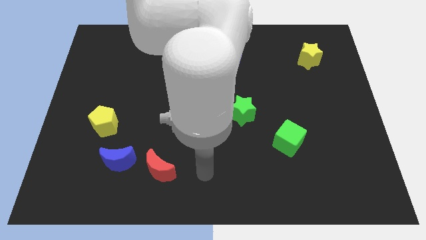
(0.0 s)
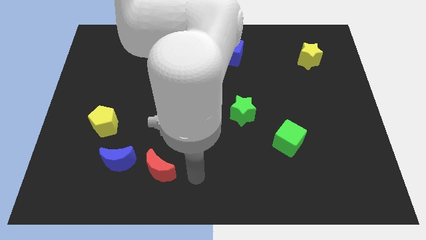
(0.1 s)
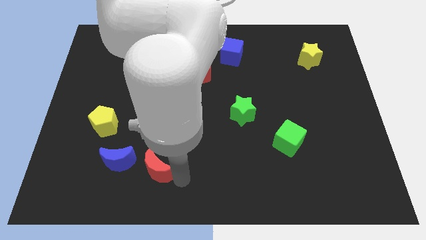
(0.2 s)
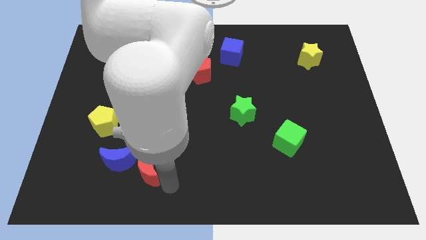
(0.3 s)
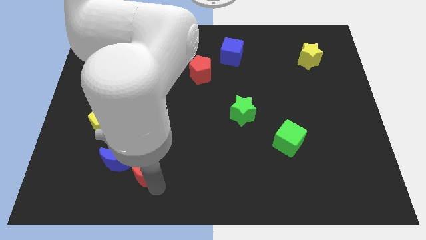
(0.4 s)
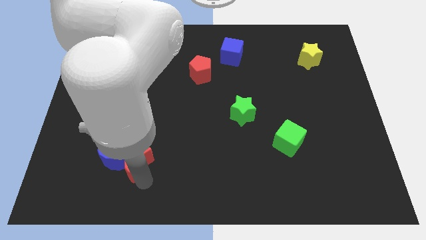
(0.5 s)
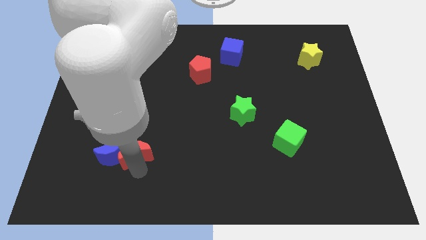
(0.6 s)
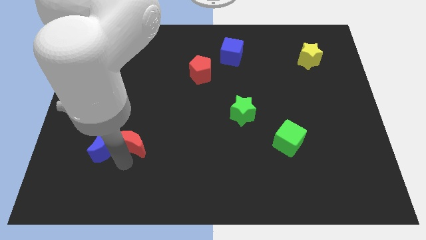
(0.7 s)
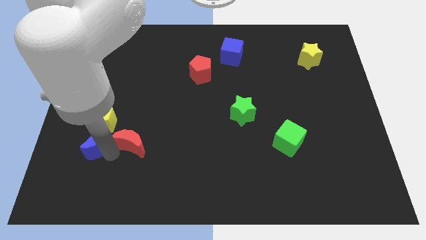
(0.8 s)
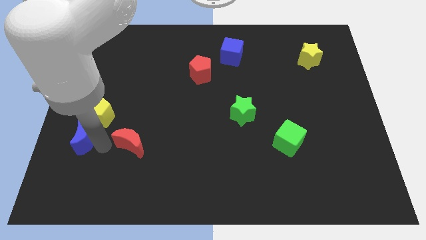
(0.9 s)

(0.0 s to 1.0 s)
separate the red moon from the blue moon

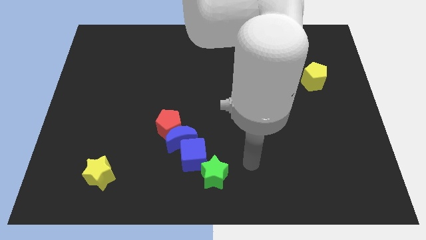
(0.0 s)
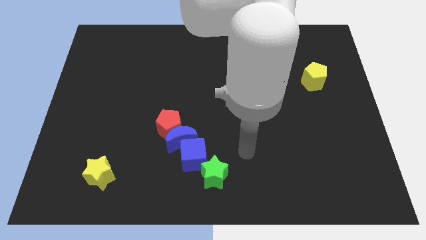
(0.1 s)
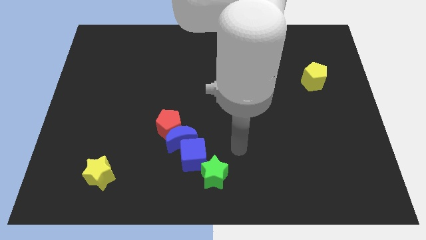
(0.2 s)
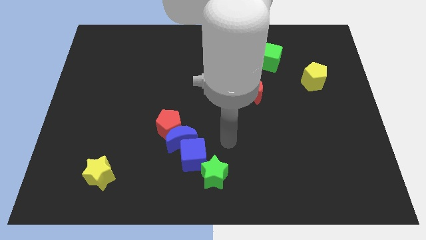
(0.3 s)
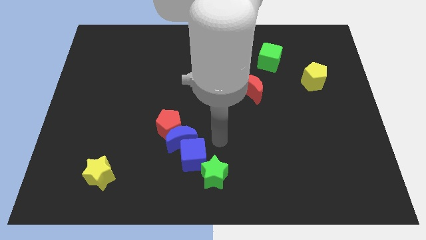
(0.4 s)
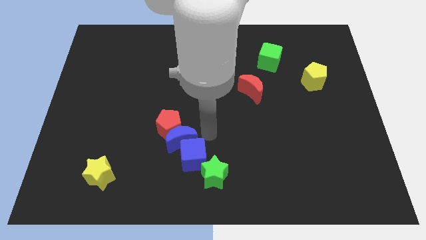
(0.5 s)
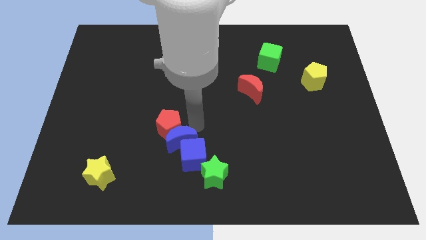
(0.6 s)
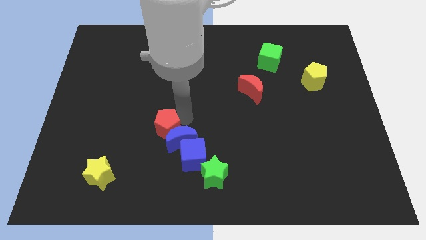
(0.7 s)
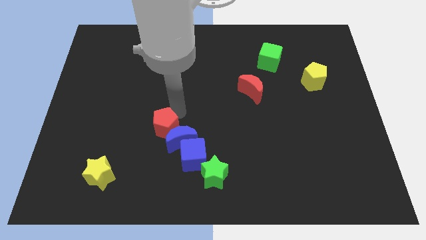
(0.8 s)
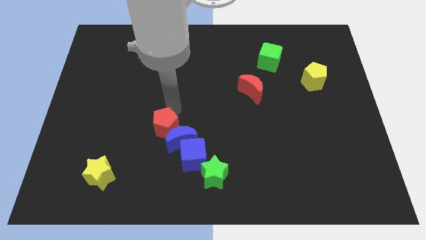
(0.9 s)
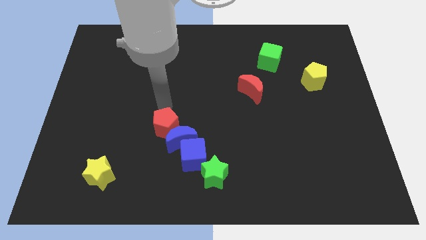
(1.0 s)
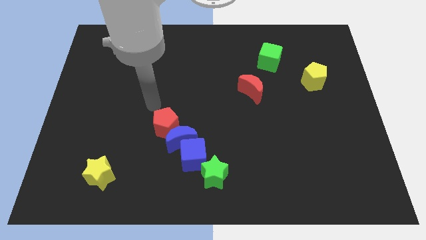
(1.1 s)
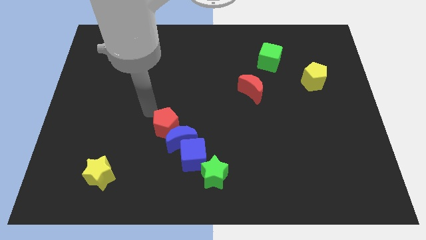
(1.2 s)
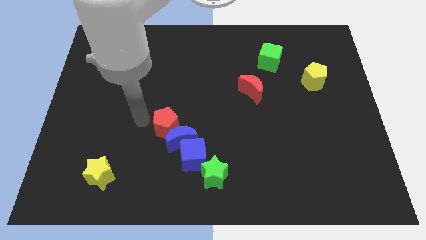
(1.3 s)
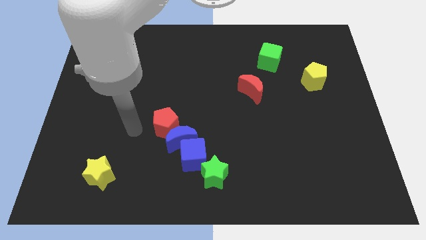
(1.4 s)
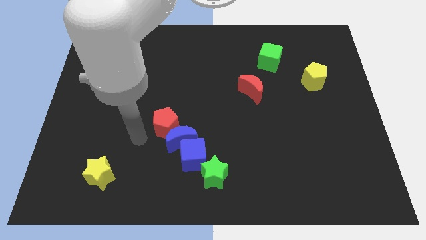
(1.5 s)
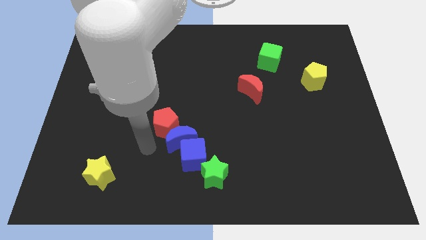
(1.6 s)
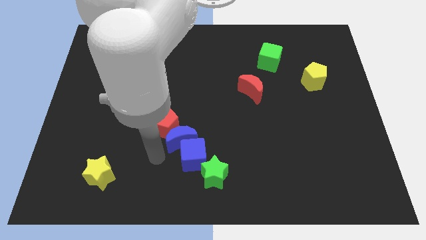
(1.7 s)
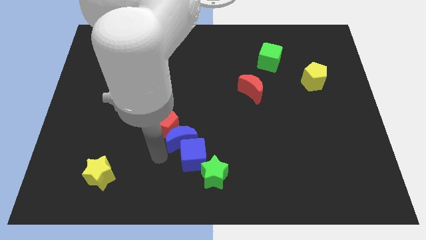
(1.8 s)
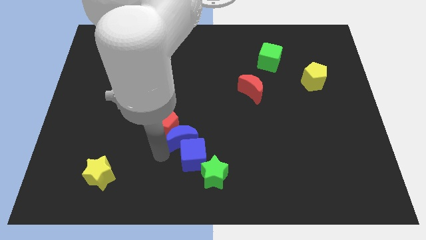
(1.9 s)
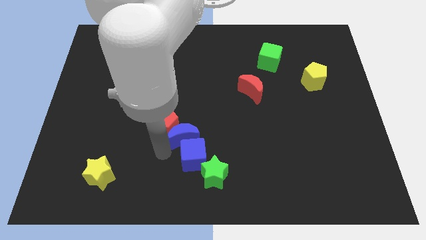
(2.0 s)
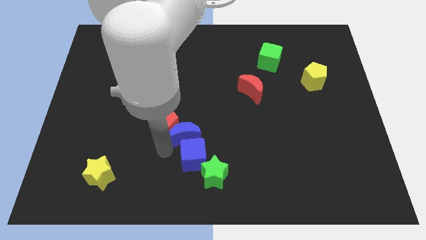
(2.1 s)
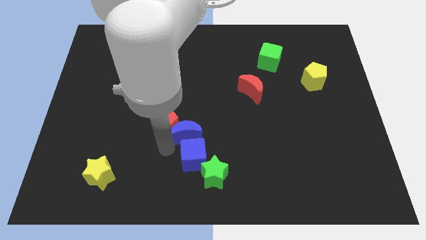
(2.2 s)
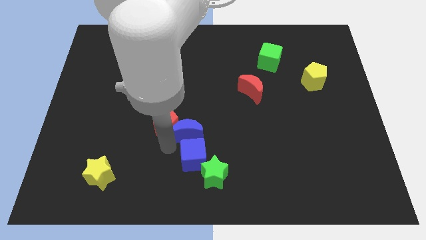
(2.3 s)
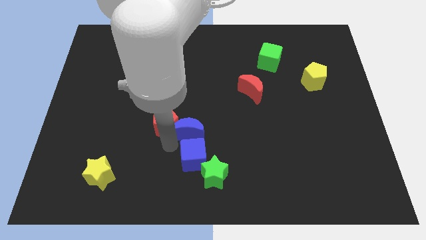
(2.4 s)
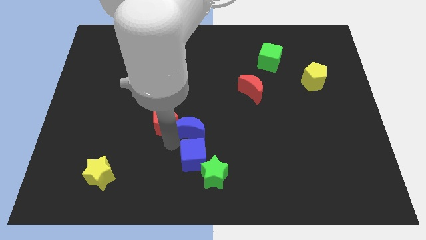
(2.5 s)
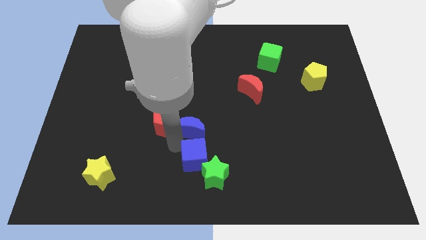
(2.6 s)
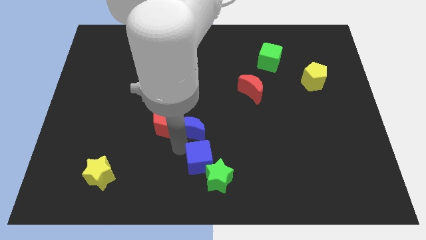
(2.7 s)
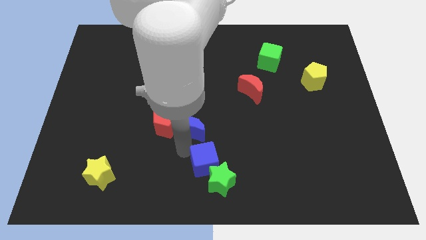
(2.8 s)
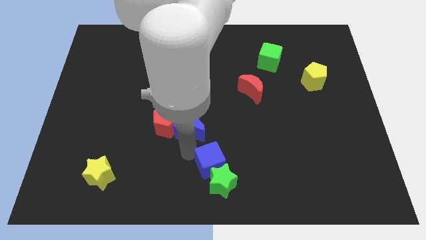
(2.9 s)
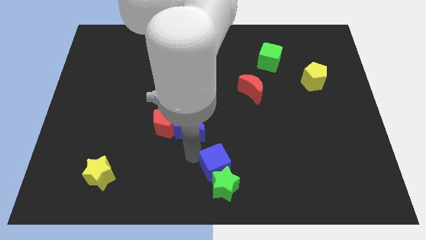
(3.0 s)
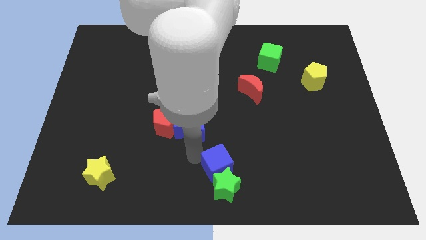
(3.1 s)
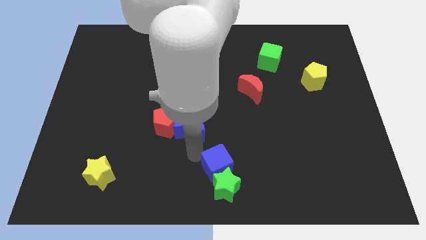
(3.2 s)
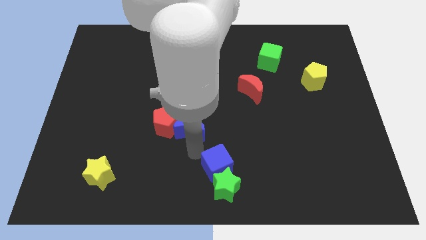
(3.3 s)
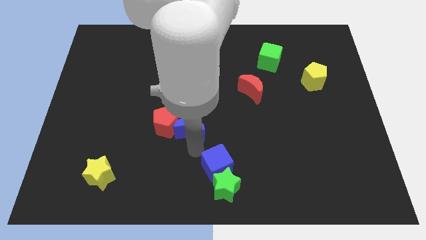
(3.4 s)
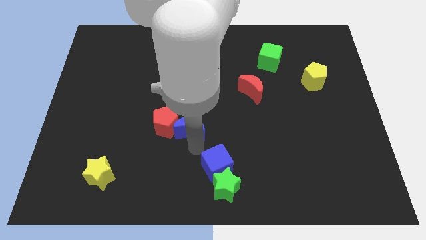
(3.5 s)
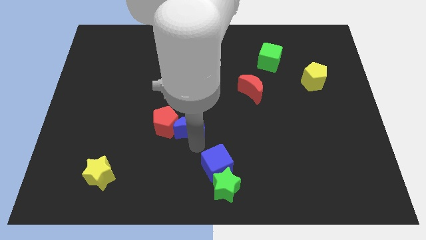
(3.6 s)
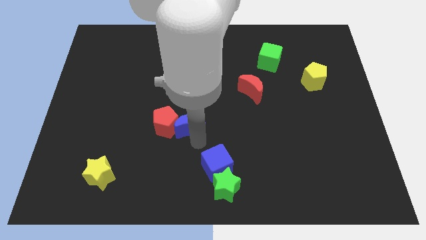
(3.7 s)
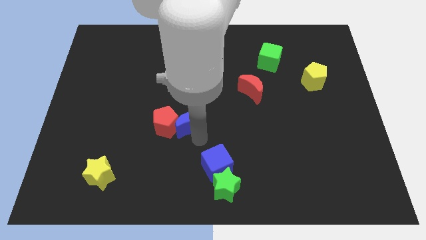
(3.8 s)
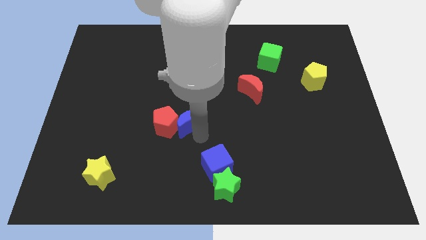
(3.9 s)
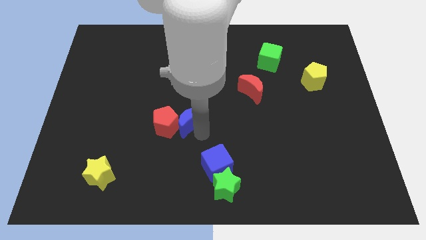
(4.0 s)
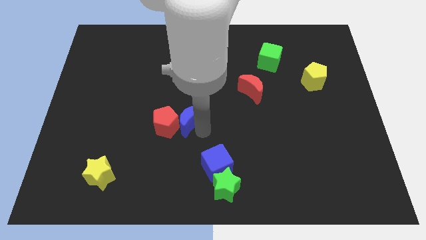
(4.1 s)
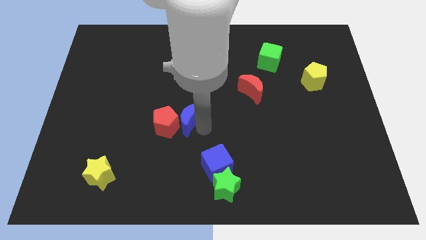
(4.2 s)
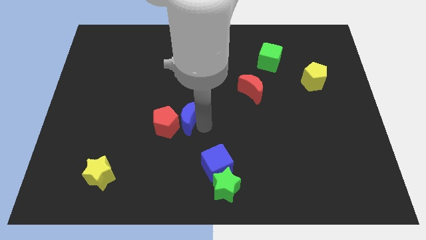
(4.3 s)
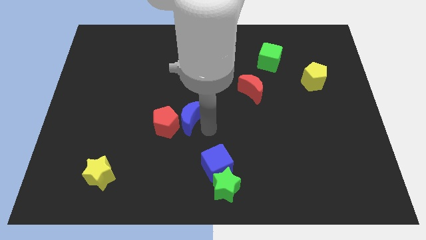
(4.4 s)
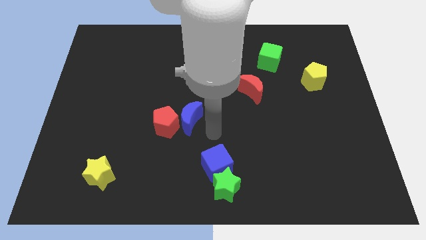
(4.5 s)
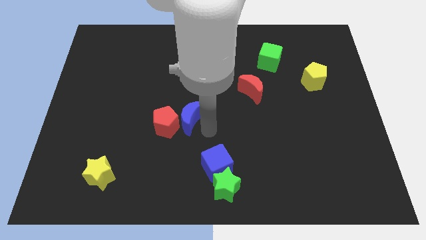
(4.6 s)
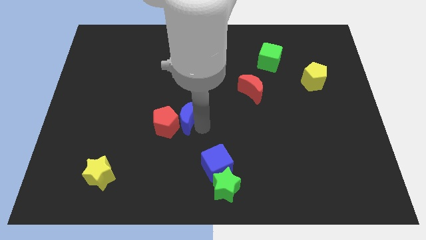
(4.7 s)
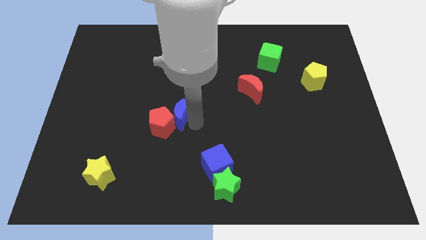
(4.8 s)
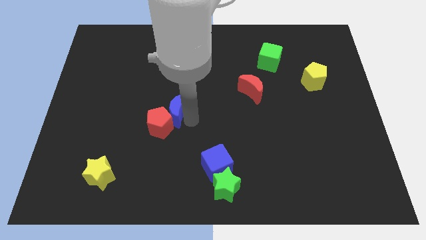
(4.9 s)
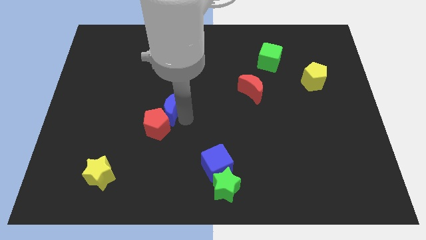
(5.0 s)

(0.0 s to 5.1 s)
separate the blue moon from the red pentagon and blue cube

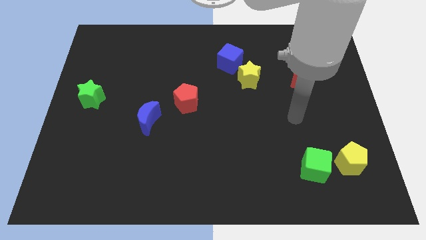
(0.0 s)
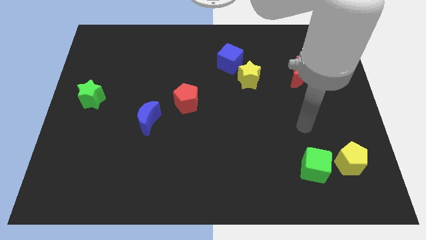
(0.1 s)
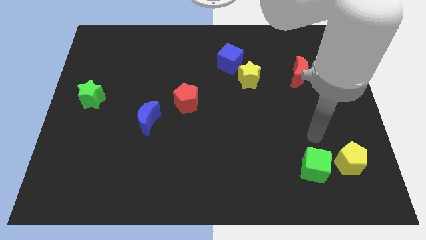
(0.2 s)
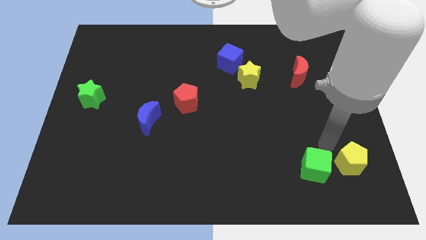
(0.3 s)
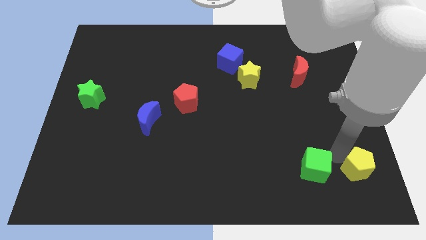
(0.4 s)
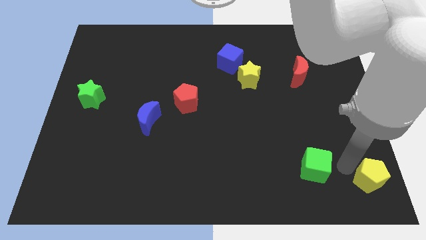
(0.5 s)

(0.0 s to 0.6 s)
move the green cube away from the yellow pentagon

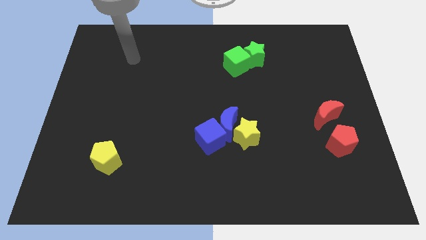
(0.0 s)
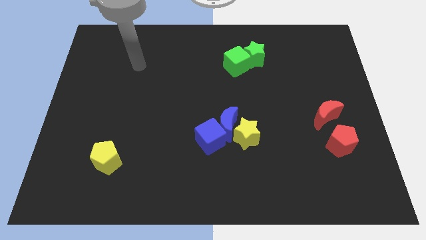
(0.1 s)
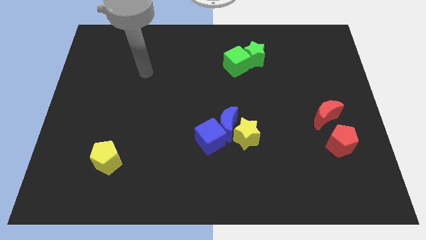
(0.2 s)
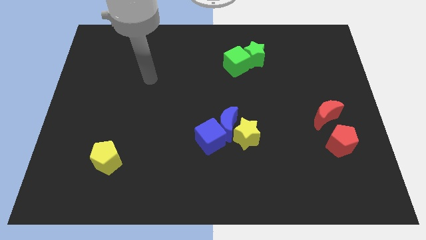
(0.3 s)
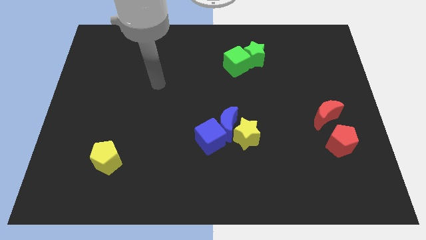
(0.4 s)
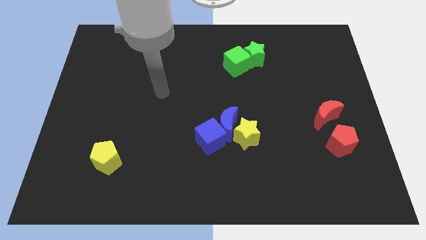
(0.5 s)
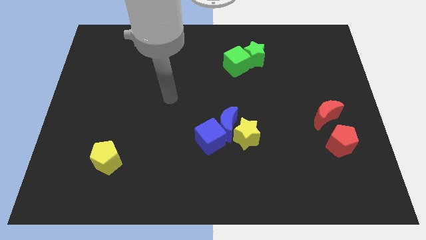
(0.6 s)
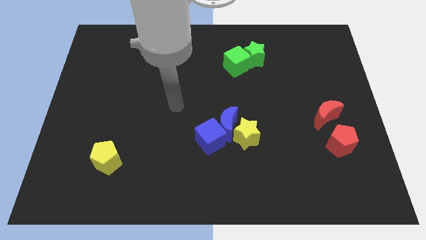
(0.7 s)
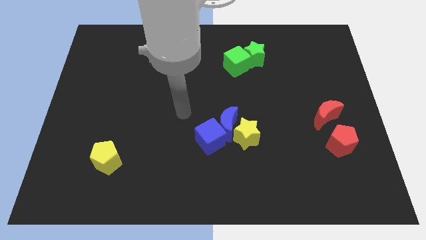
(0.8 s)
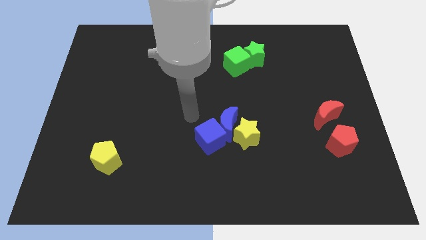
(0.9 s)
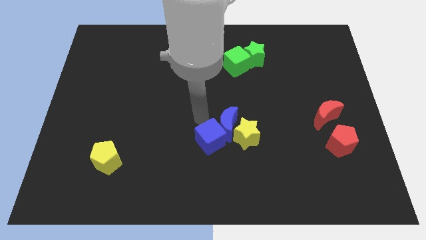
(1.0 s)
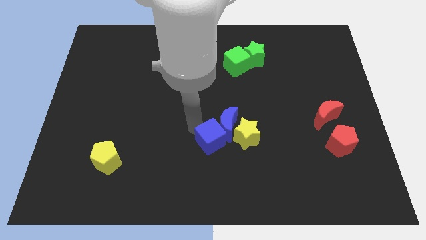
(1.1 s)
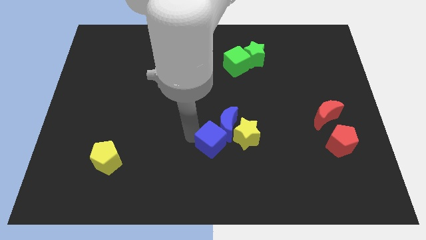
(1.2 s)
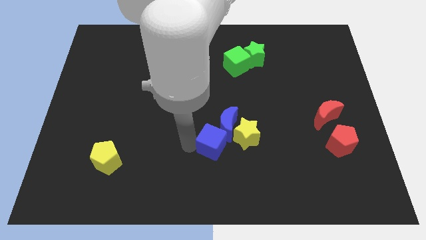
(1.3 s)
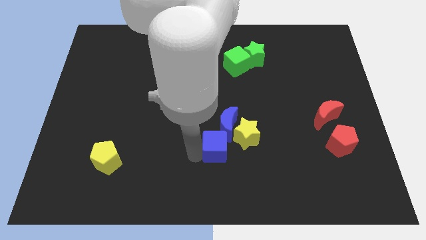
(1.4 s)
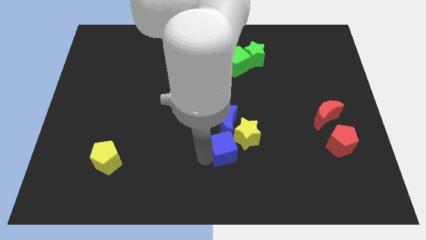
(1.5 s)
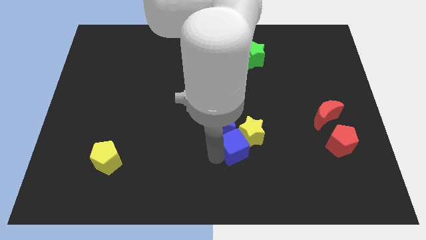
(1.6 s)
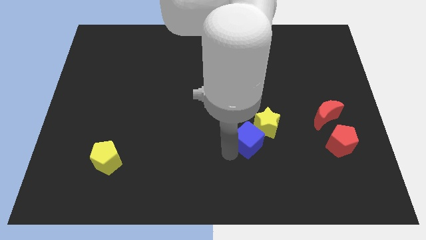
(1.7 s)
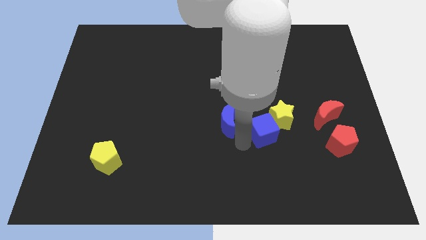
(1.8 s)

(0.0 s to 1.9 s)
pull the blue moon apart from the yellow star and blue cube

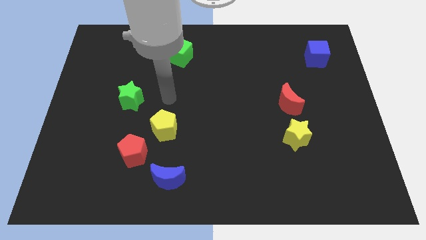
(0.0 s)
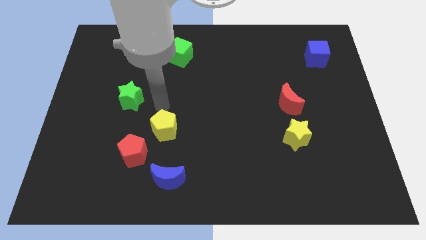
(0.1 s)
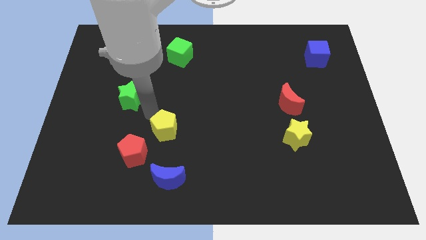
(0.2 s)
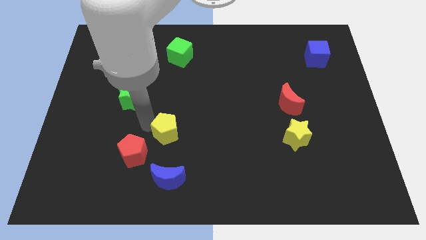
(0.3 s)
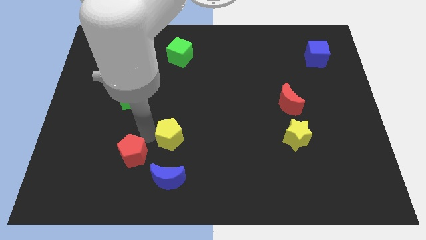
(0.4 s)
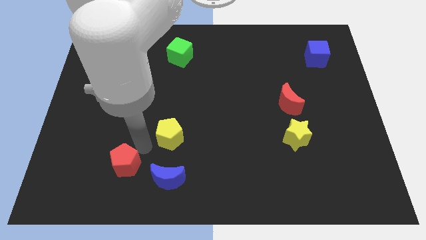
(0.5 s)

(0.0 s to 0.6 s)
separate the yellow pentagon from the red pentagon
